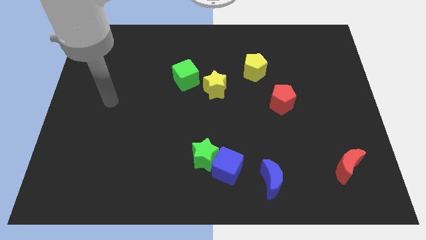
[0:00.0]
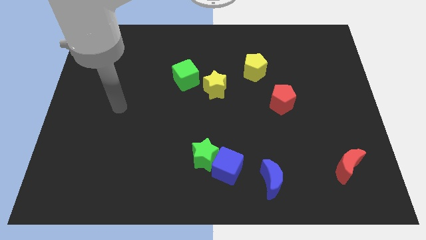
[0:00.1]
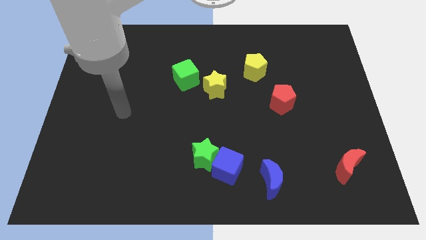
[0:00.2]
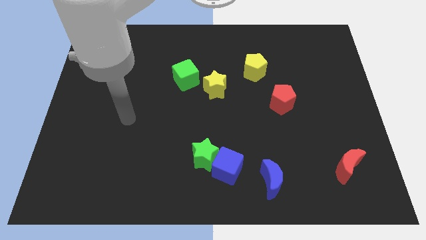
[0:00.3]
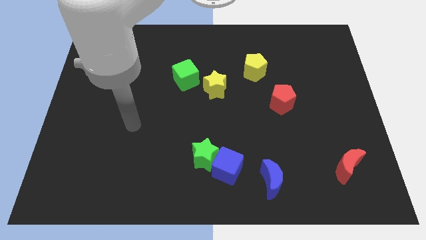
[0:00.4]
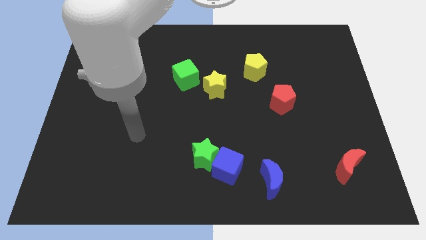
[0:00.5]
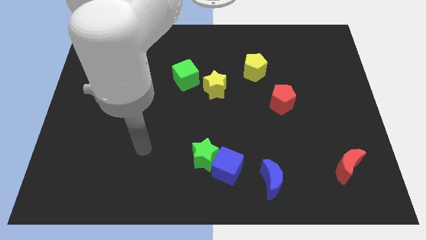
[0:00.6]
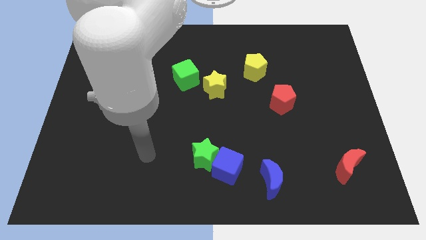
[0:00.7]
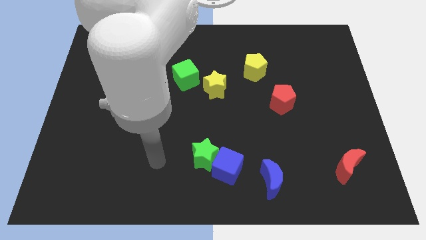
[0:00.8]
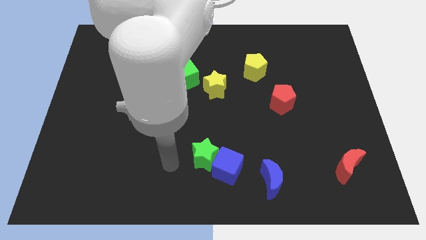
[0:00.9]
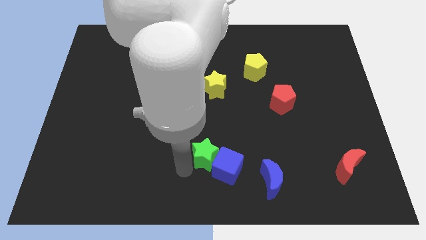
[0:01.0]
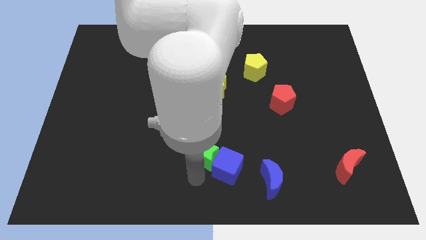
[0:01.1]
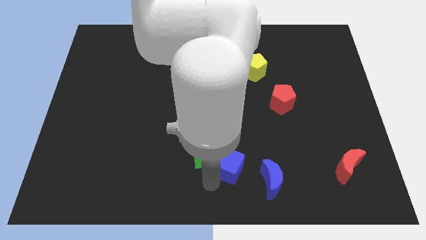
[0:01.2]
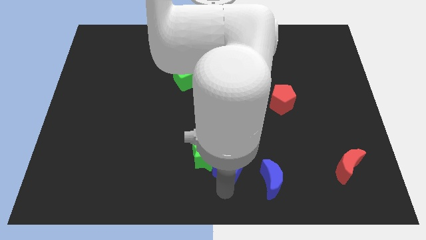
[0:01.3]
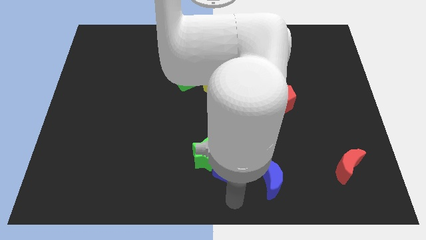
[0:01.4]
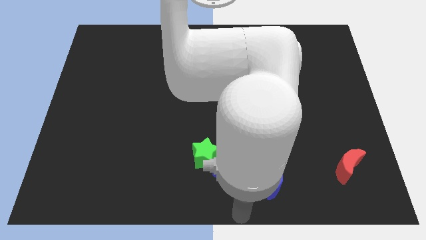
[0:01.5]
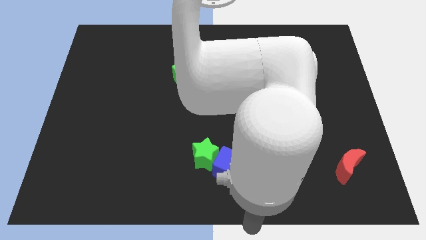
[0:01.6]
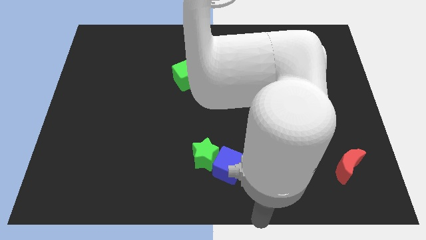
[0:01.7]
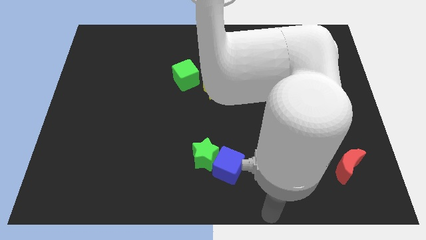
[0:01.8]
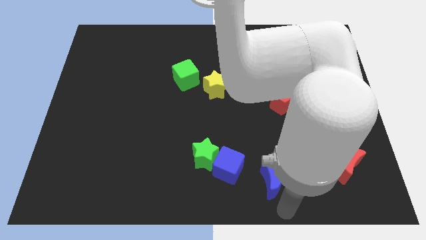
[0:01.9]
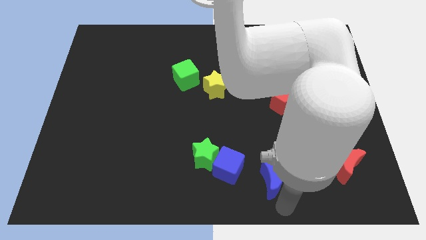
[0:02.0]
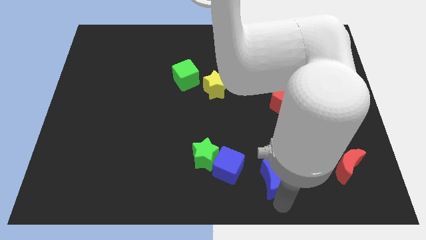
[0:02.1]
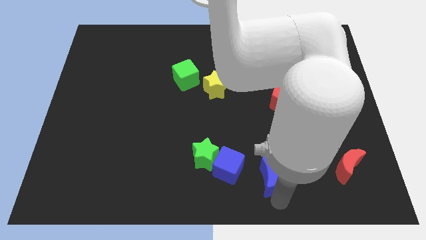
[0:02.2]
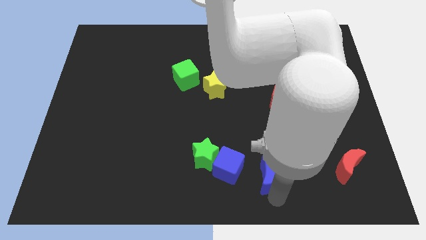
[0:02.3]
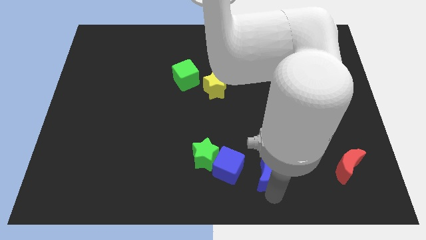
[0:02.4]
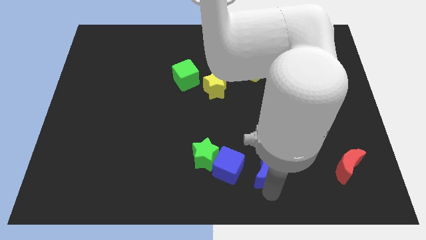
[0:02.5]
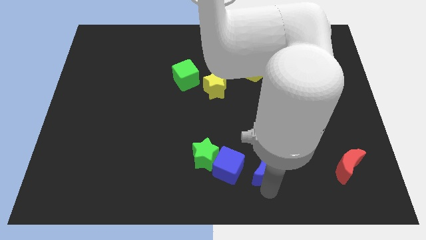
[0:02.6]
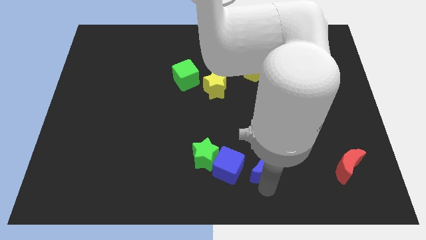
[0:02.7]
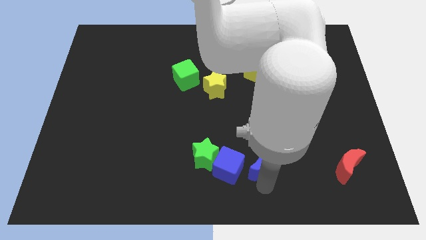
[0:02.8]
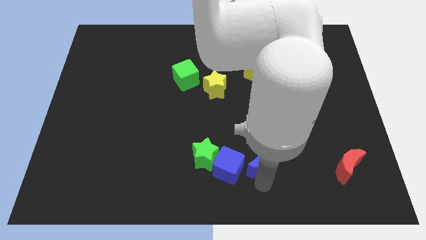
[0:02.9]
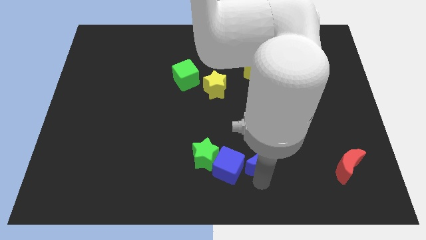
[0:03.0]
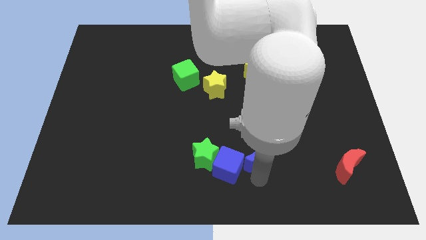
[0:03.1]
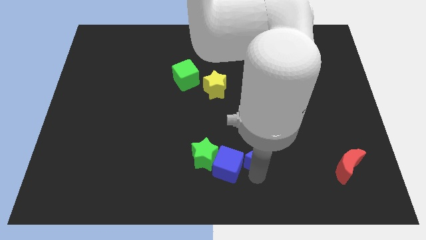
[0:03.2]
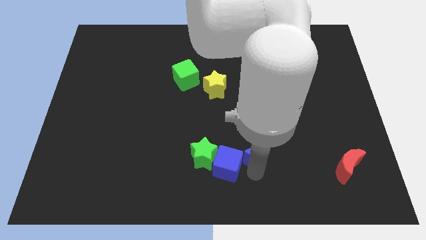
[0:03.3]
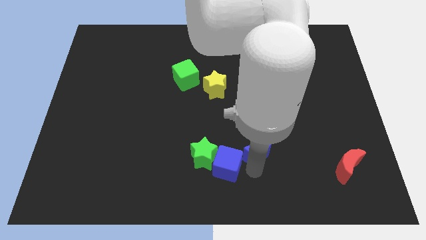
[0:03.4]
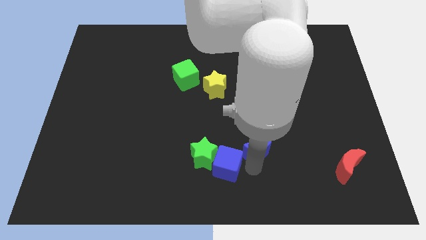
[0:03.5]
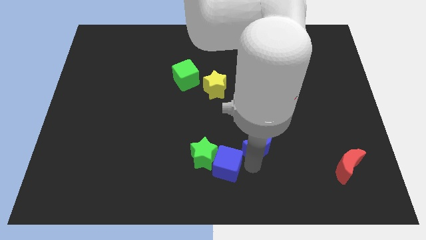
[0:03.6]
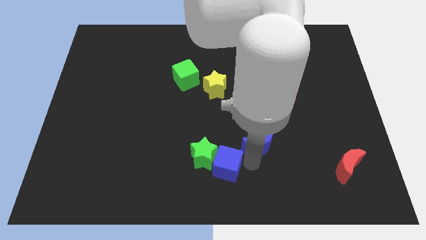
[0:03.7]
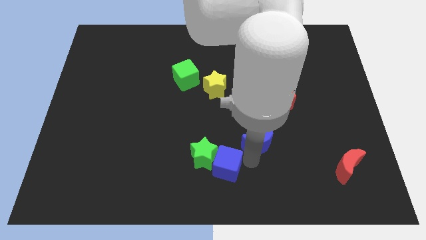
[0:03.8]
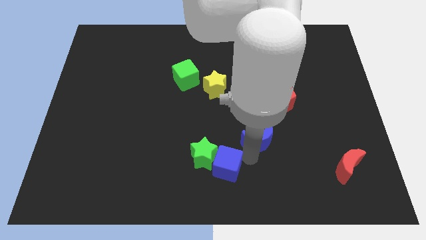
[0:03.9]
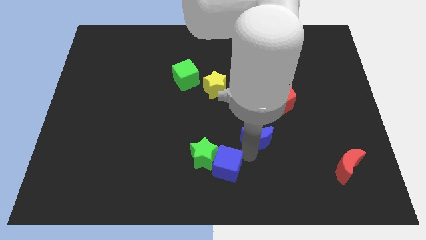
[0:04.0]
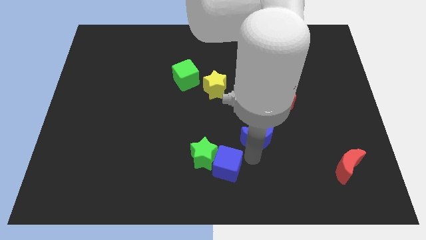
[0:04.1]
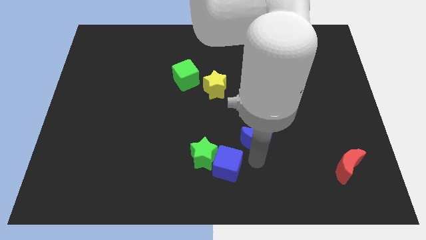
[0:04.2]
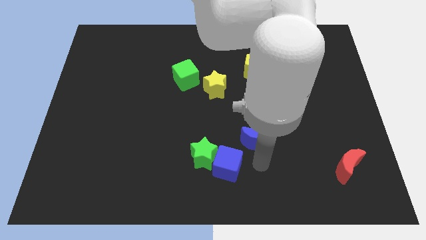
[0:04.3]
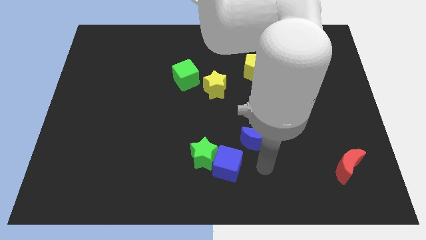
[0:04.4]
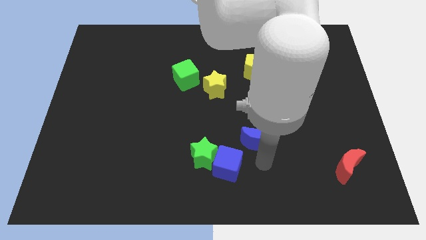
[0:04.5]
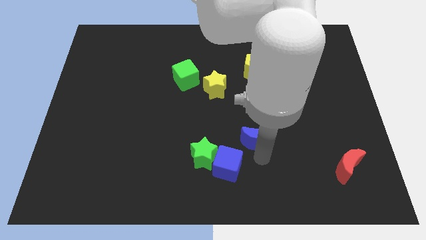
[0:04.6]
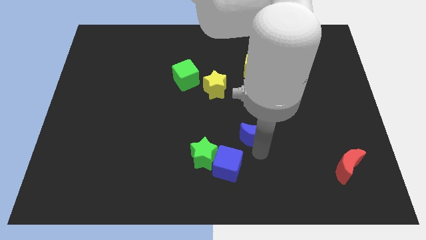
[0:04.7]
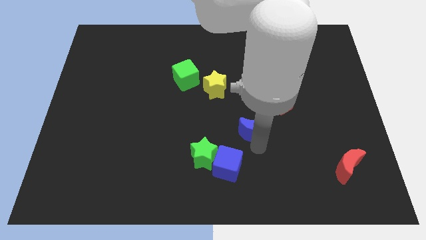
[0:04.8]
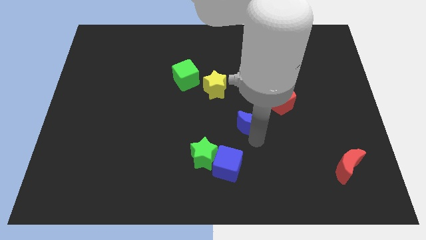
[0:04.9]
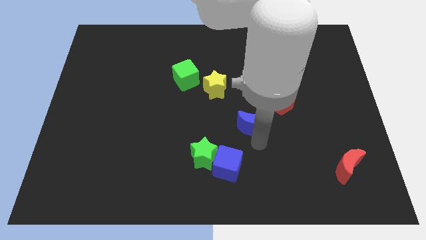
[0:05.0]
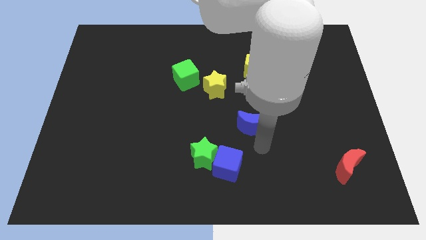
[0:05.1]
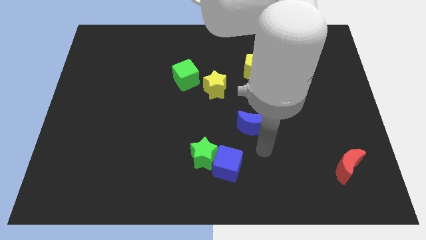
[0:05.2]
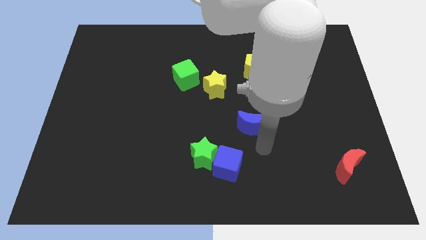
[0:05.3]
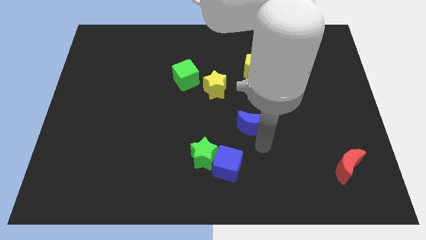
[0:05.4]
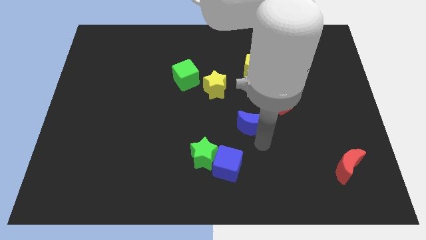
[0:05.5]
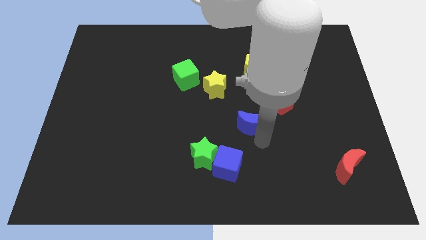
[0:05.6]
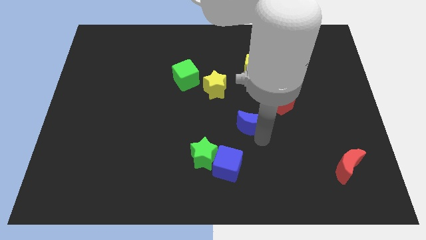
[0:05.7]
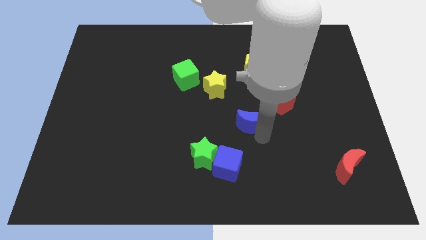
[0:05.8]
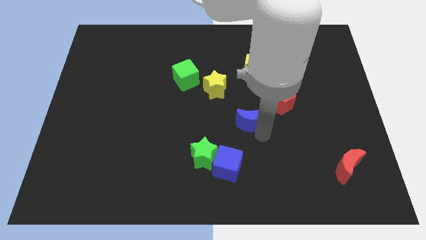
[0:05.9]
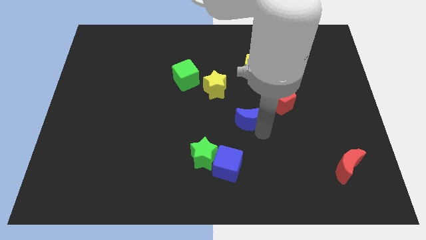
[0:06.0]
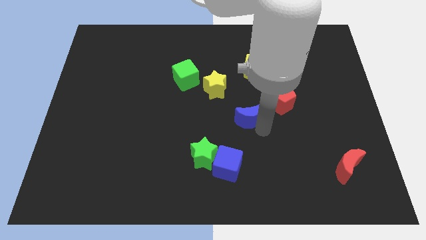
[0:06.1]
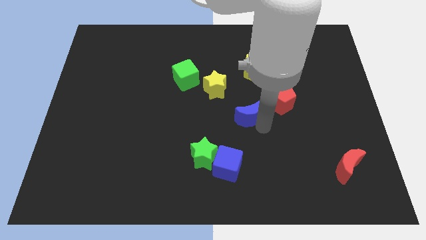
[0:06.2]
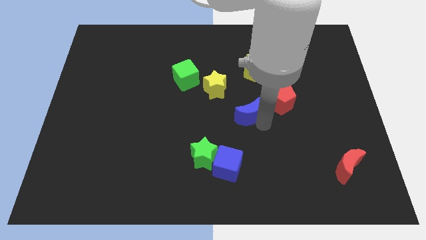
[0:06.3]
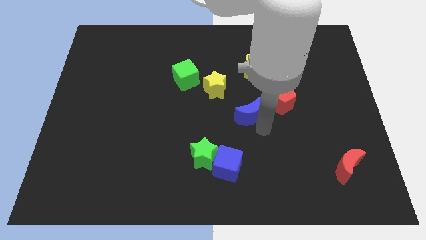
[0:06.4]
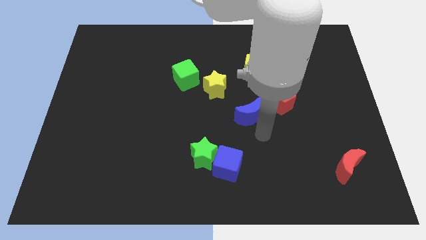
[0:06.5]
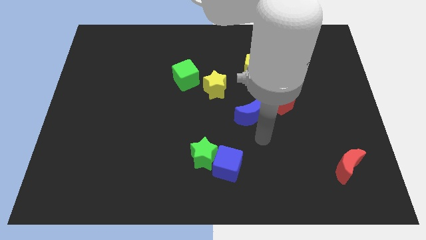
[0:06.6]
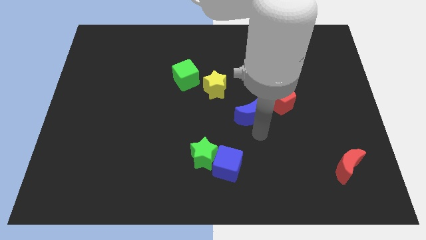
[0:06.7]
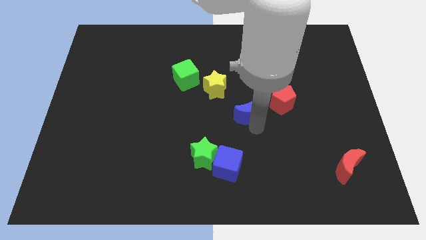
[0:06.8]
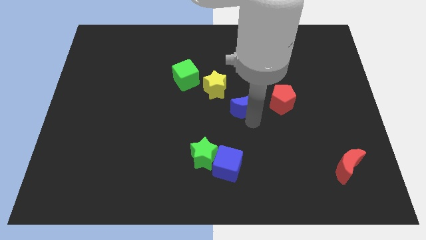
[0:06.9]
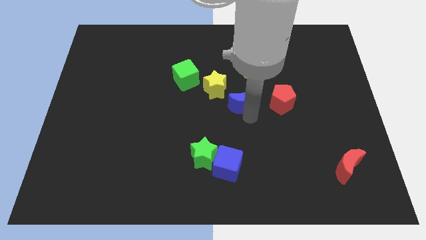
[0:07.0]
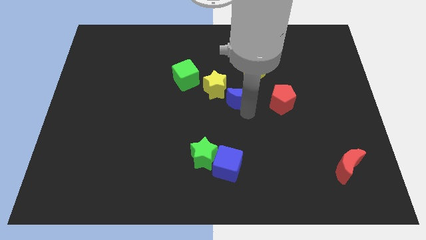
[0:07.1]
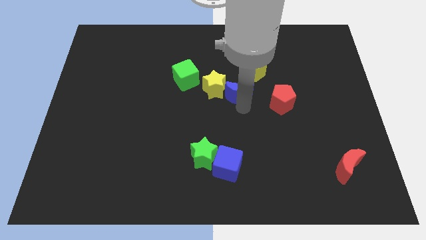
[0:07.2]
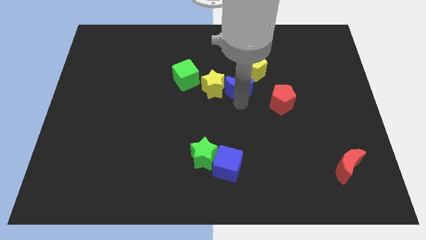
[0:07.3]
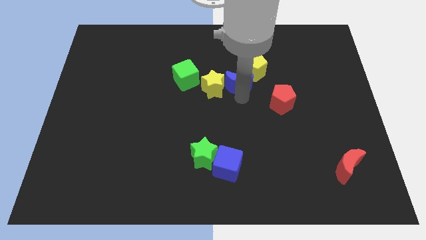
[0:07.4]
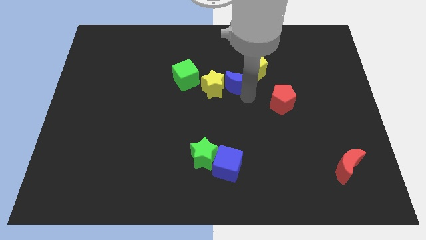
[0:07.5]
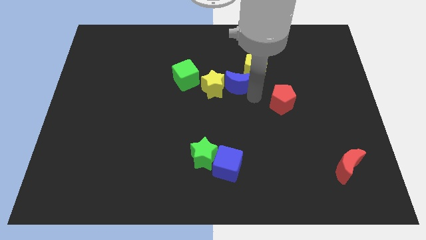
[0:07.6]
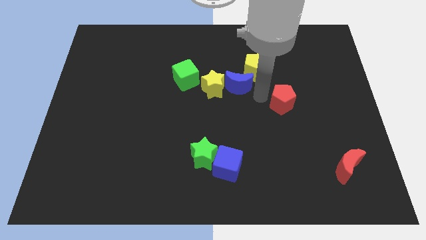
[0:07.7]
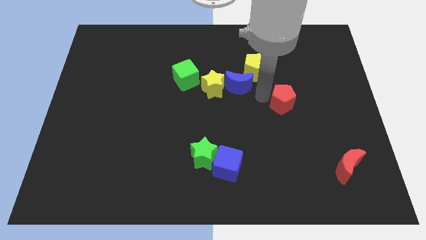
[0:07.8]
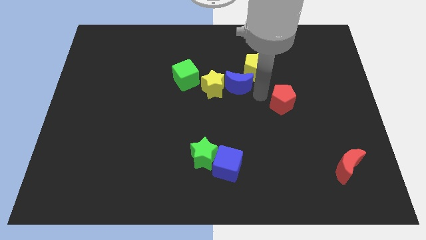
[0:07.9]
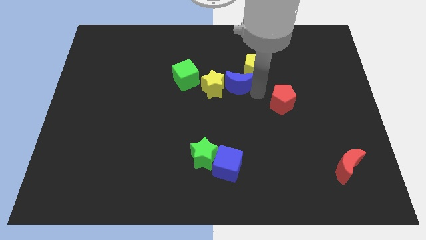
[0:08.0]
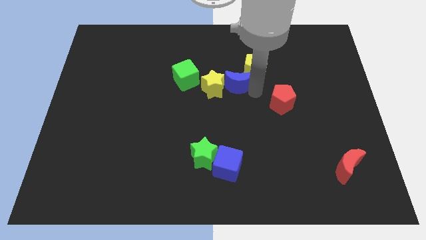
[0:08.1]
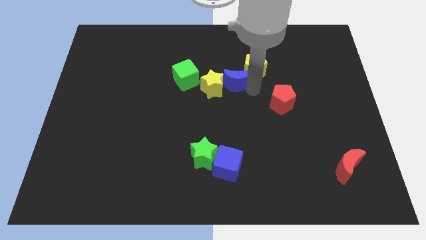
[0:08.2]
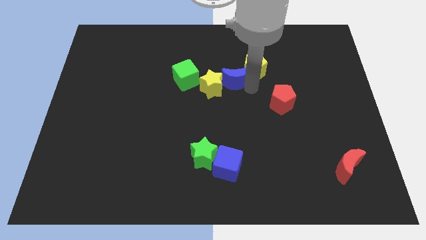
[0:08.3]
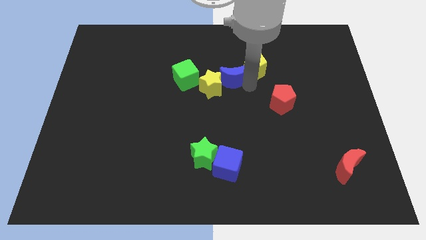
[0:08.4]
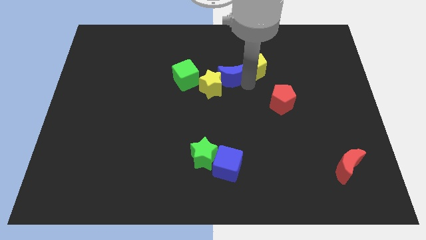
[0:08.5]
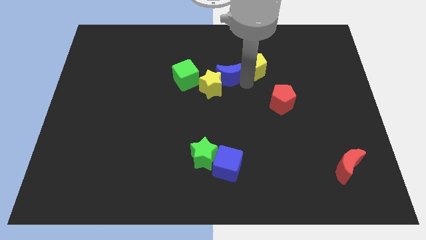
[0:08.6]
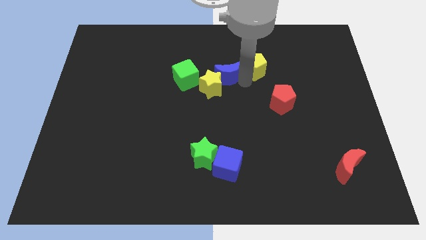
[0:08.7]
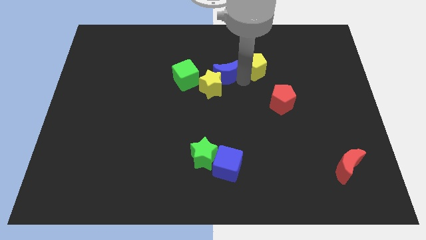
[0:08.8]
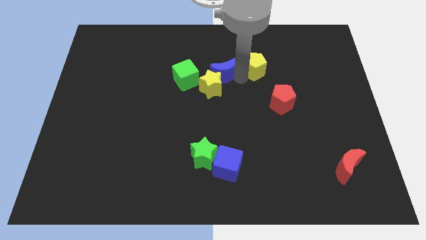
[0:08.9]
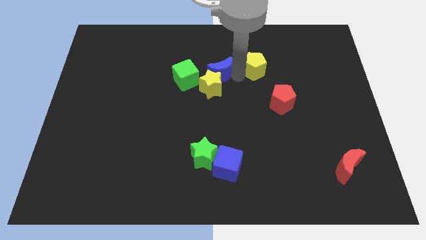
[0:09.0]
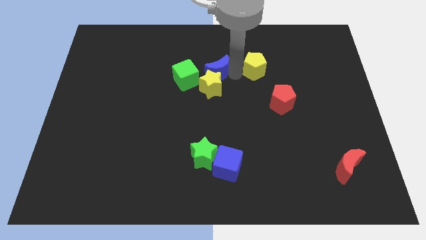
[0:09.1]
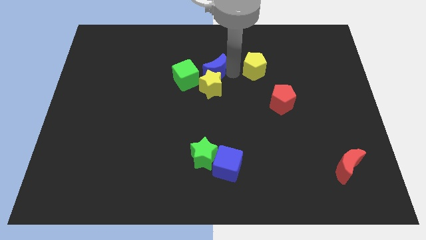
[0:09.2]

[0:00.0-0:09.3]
slide the blue moon to the top left side of the yellow star
